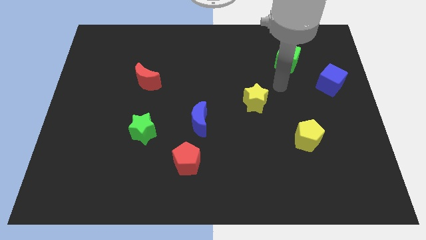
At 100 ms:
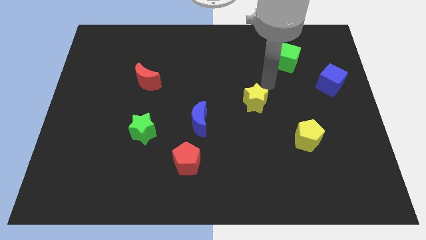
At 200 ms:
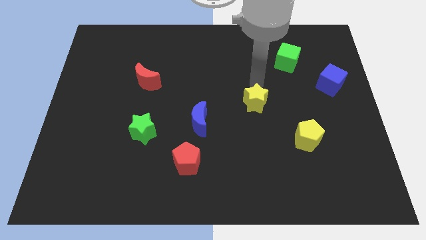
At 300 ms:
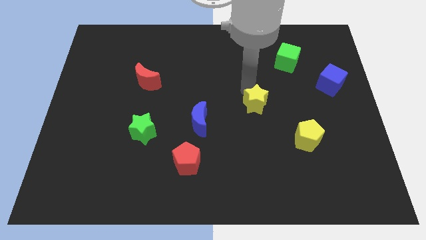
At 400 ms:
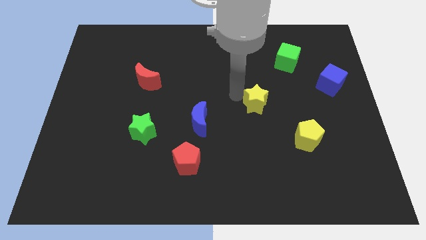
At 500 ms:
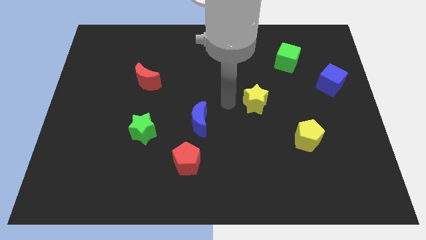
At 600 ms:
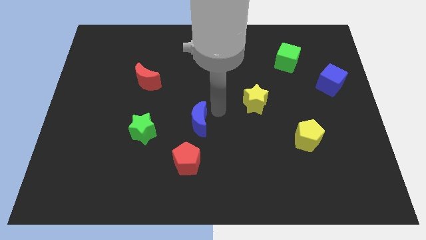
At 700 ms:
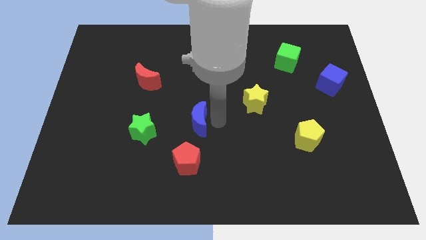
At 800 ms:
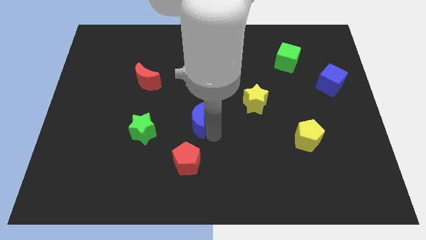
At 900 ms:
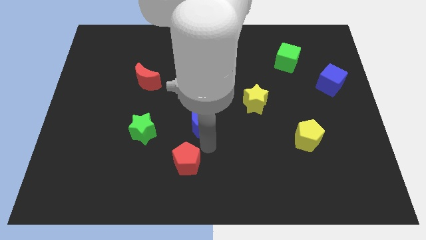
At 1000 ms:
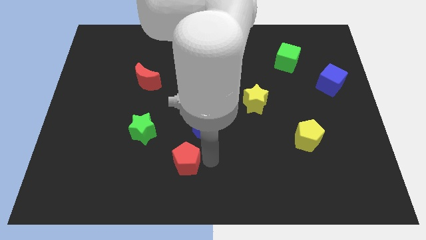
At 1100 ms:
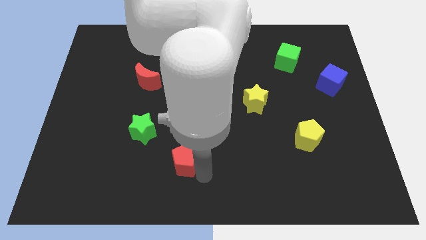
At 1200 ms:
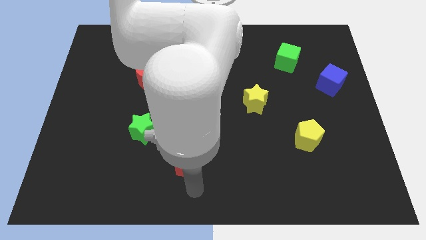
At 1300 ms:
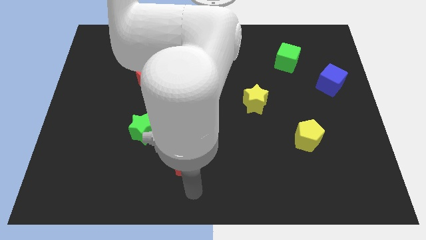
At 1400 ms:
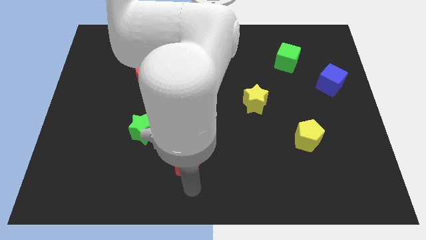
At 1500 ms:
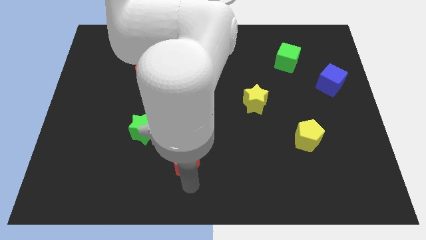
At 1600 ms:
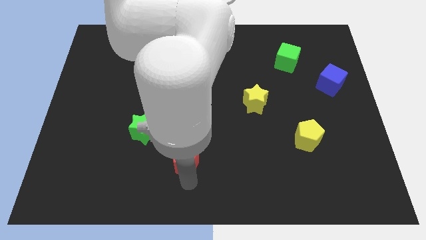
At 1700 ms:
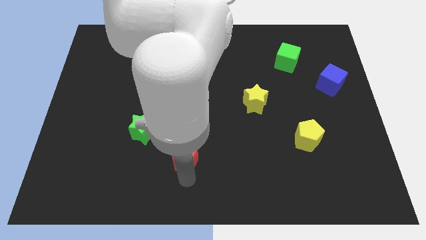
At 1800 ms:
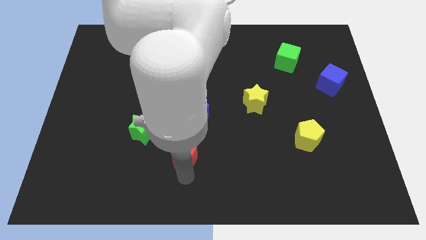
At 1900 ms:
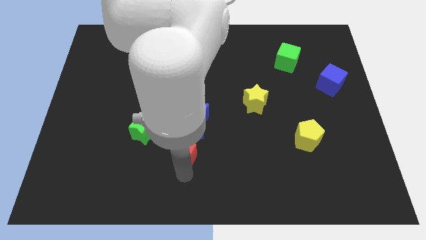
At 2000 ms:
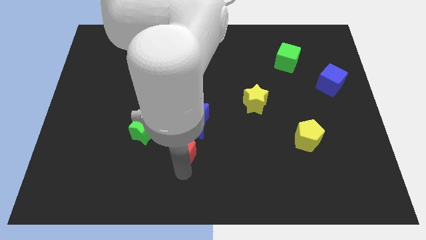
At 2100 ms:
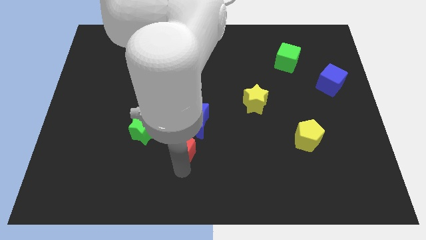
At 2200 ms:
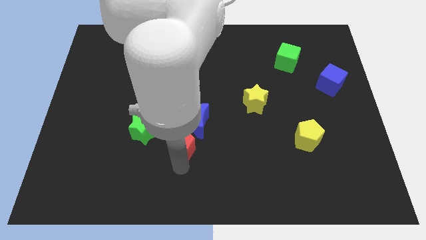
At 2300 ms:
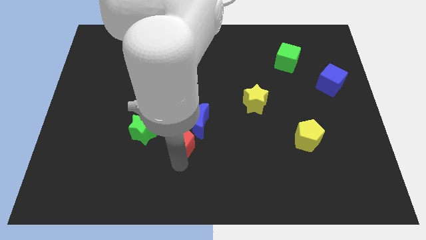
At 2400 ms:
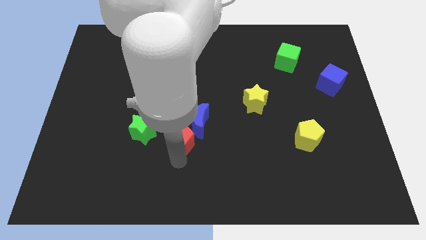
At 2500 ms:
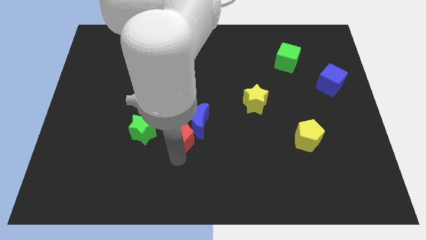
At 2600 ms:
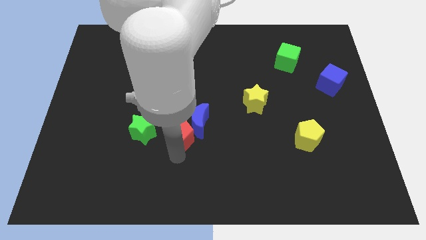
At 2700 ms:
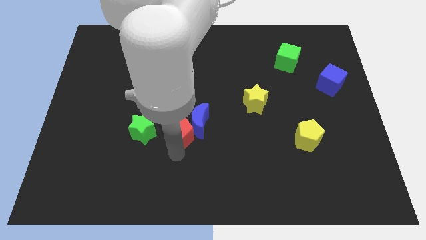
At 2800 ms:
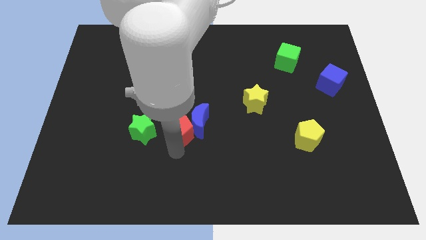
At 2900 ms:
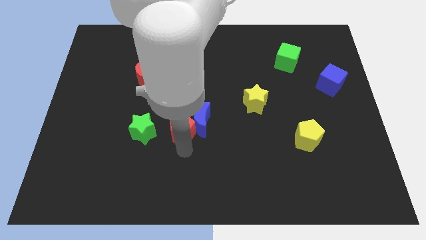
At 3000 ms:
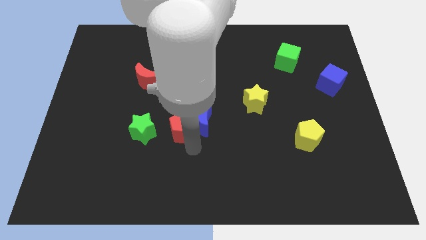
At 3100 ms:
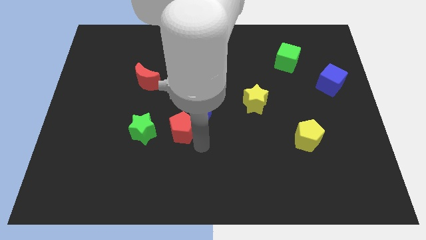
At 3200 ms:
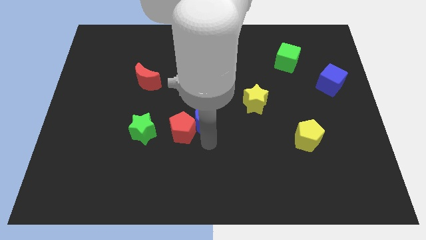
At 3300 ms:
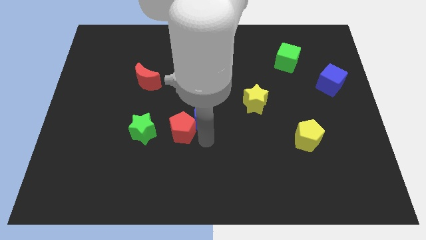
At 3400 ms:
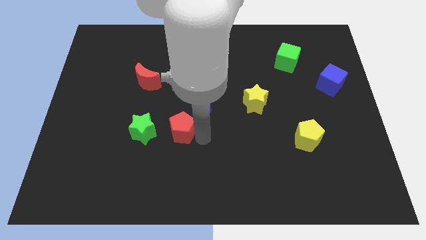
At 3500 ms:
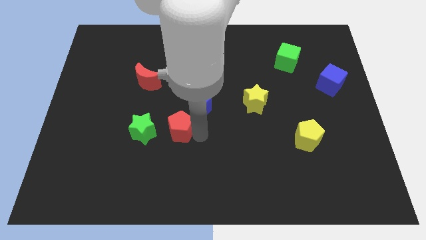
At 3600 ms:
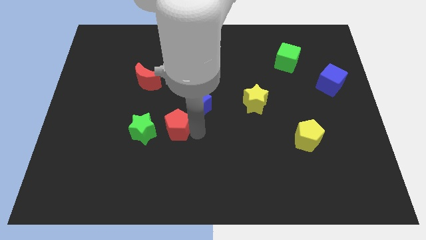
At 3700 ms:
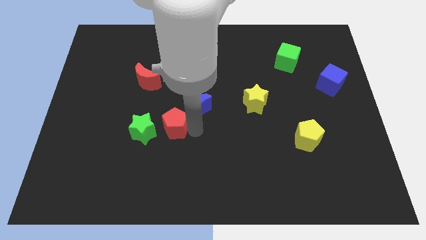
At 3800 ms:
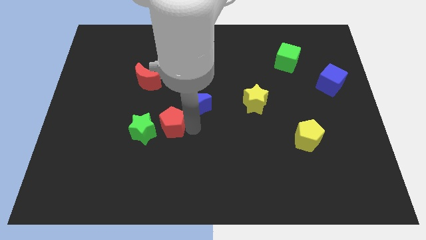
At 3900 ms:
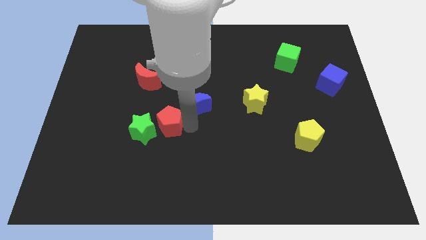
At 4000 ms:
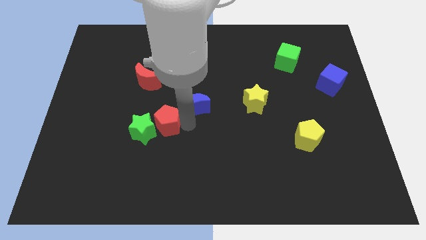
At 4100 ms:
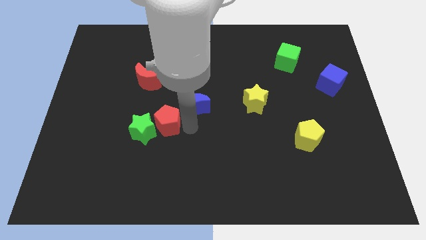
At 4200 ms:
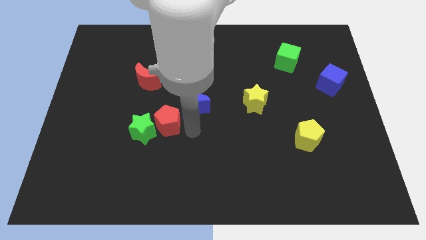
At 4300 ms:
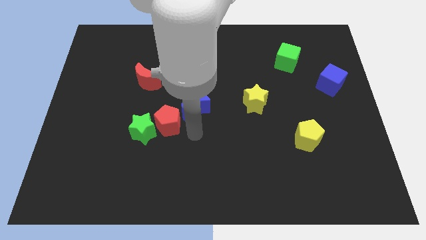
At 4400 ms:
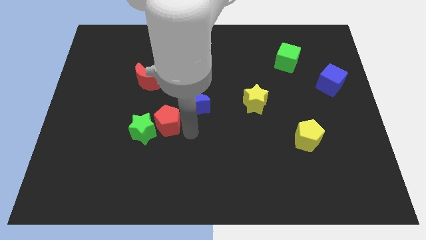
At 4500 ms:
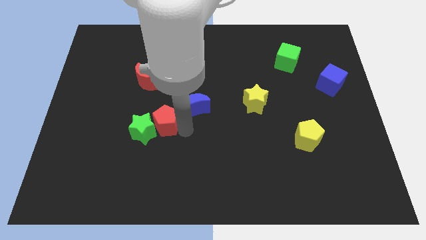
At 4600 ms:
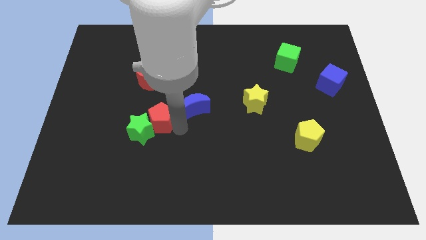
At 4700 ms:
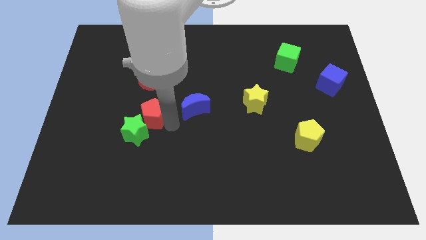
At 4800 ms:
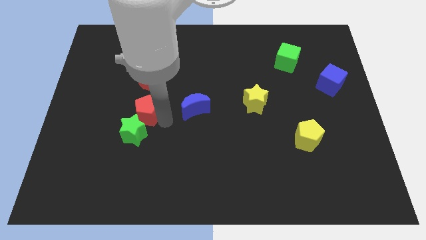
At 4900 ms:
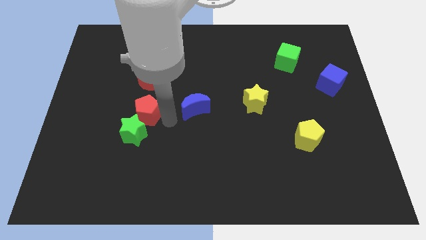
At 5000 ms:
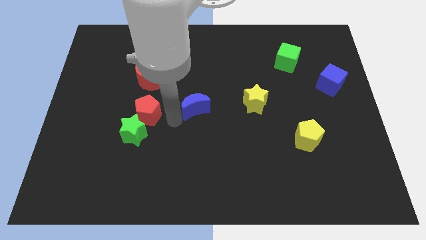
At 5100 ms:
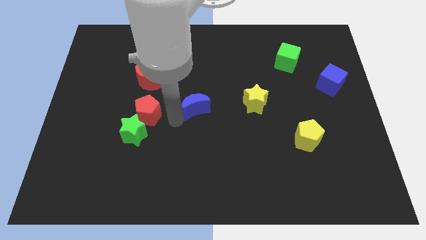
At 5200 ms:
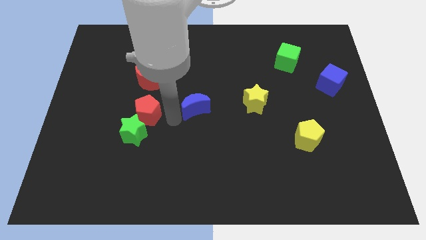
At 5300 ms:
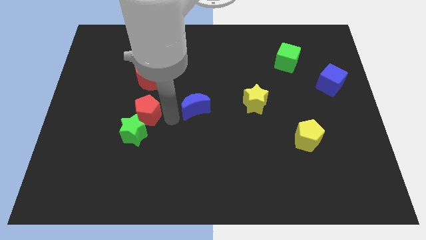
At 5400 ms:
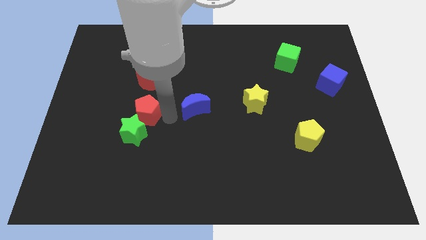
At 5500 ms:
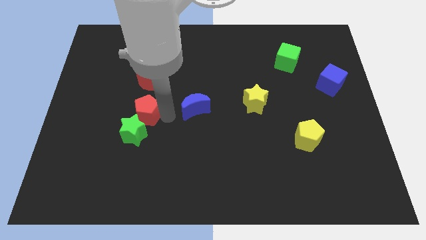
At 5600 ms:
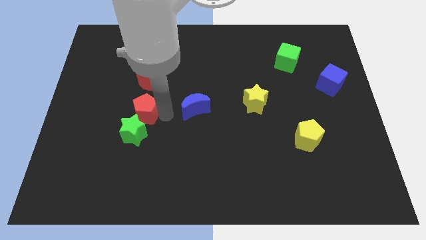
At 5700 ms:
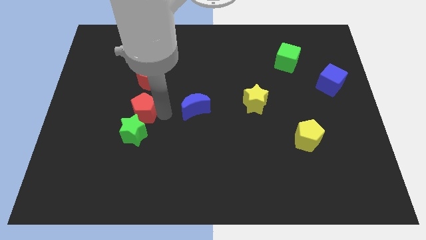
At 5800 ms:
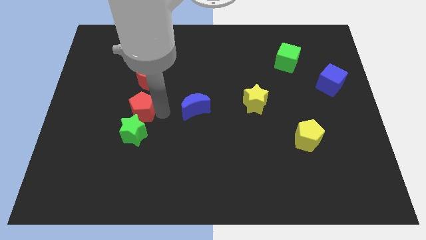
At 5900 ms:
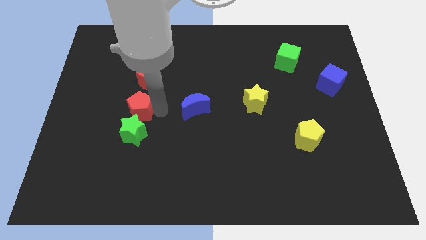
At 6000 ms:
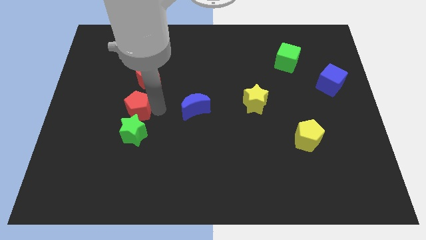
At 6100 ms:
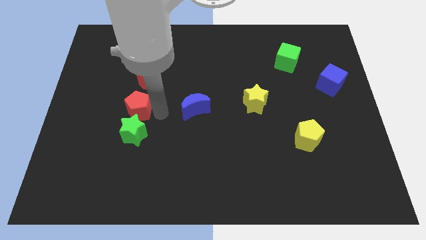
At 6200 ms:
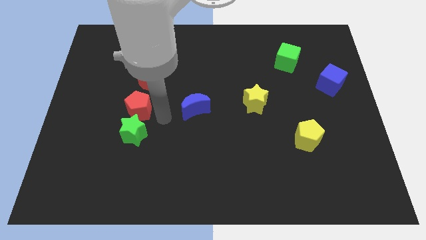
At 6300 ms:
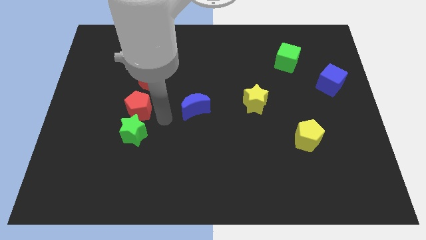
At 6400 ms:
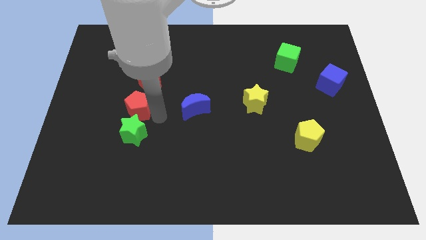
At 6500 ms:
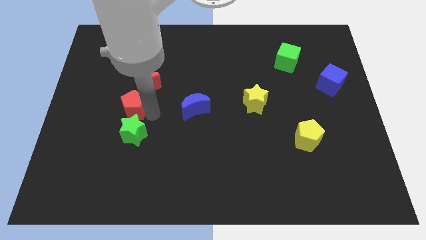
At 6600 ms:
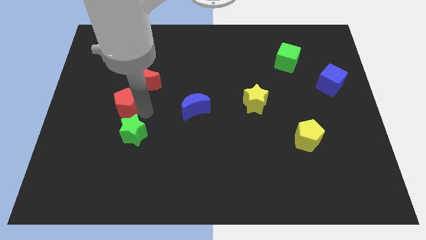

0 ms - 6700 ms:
push the red pentagon diagonally up and to the left

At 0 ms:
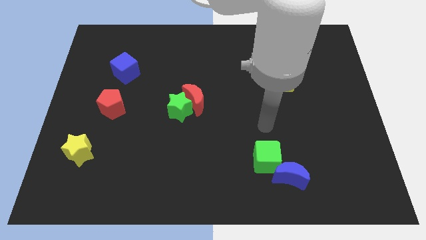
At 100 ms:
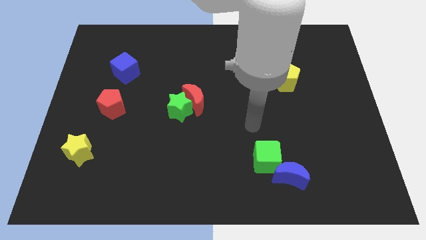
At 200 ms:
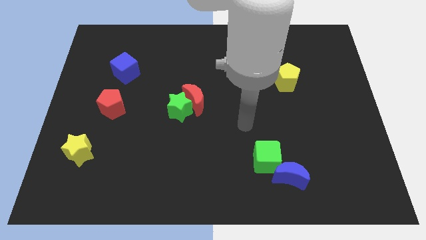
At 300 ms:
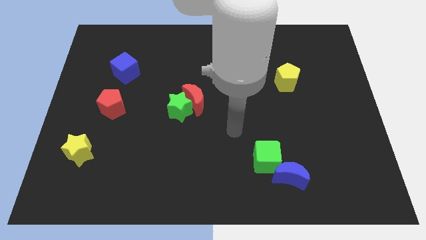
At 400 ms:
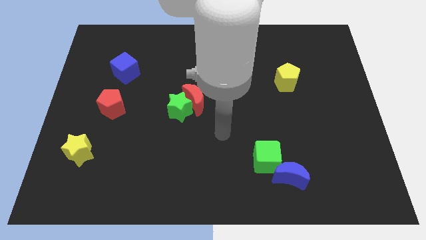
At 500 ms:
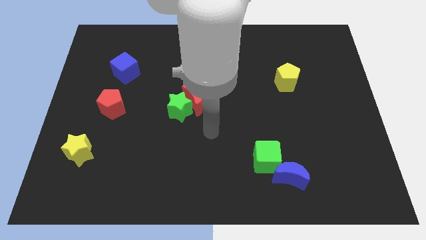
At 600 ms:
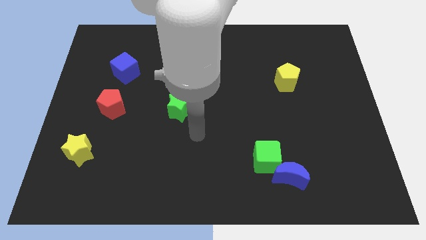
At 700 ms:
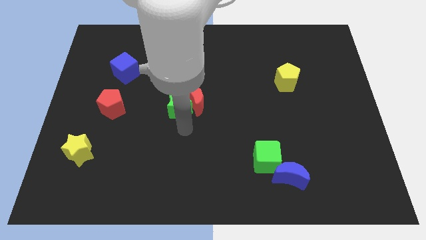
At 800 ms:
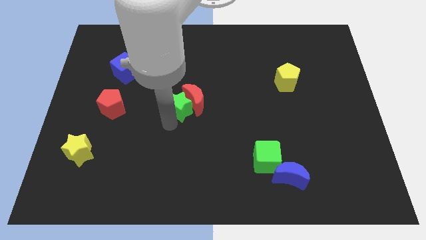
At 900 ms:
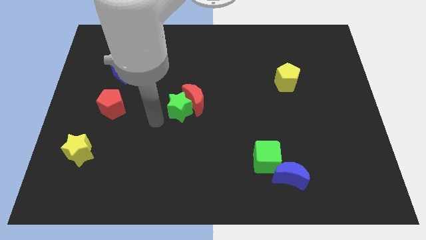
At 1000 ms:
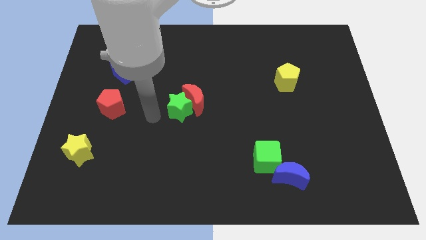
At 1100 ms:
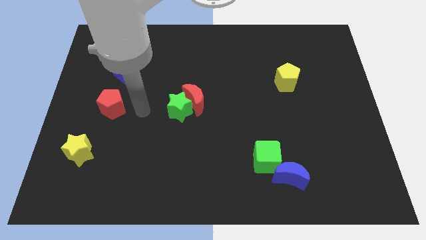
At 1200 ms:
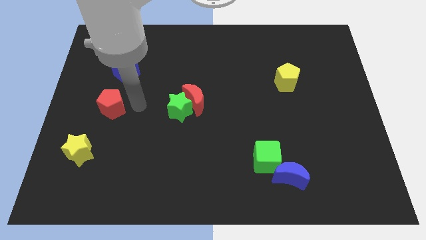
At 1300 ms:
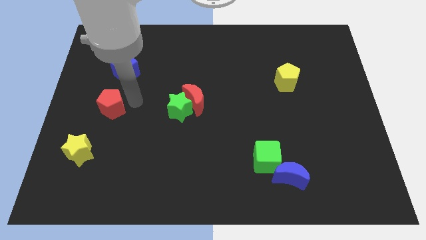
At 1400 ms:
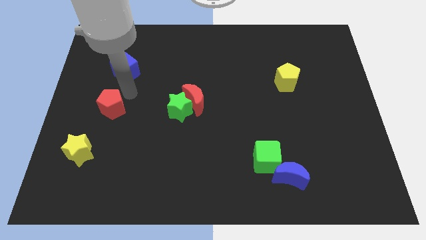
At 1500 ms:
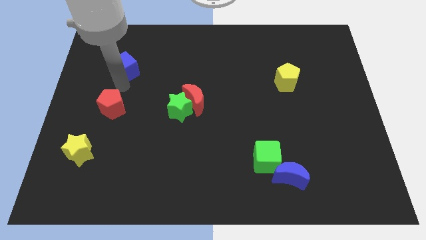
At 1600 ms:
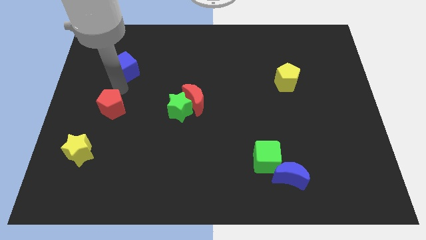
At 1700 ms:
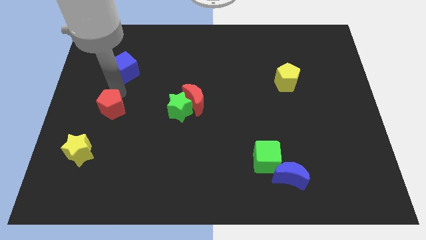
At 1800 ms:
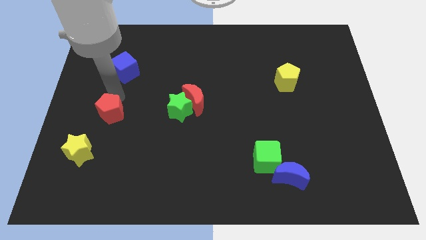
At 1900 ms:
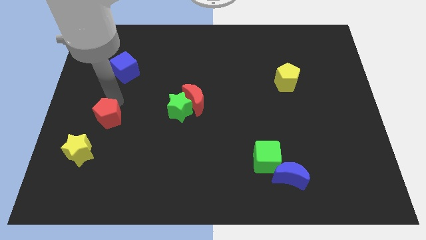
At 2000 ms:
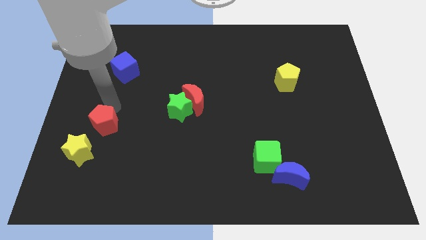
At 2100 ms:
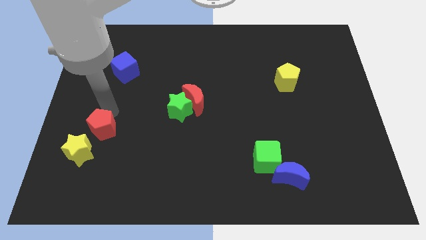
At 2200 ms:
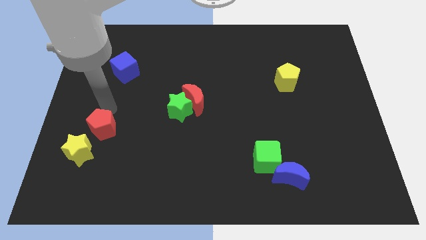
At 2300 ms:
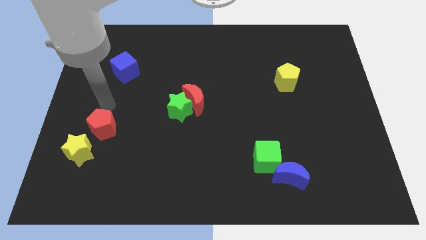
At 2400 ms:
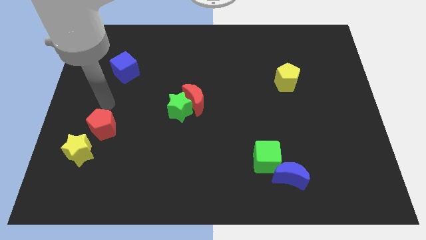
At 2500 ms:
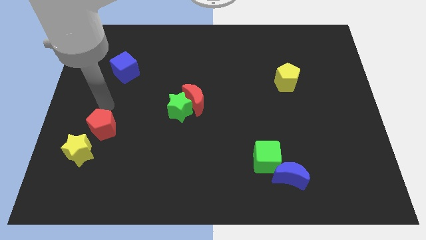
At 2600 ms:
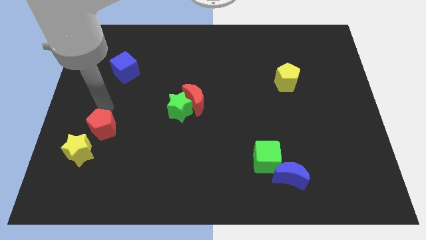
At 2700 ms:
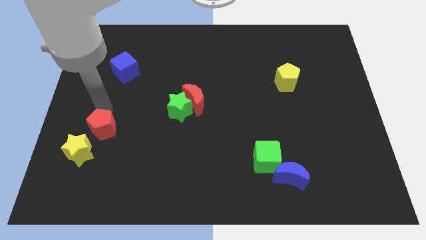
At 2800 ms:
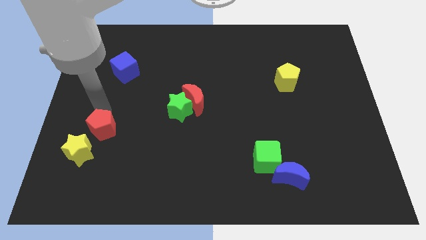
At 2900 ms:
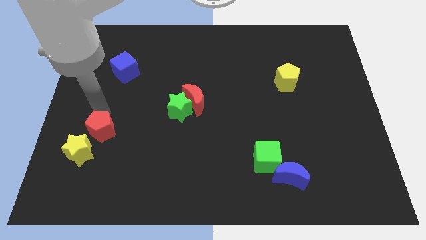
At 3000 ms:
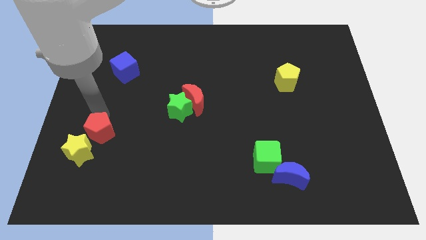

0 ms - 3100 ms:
move the red pentagon downwards a little bit
